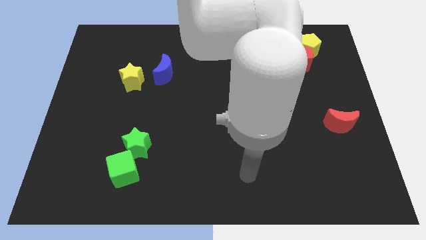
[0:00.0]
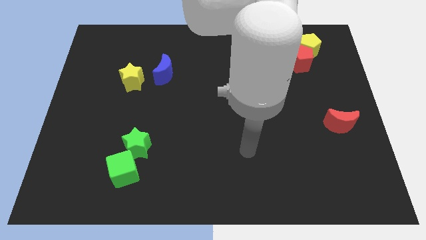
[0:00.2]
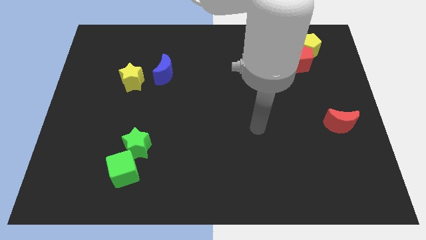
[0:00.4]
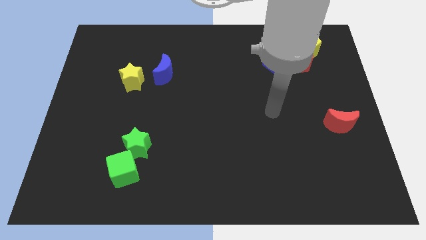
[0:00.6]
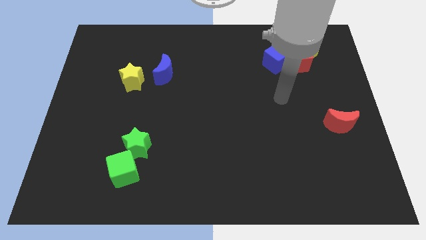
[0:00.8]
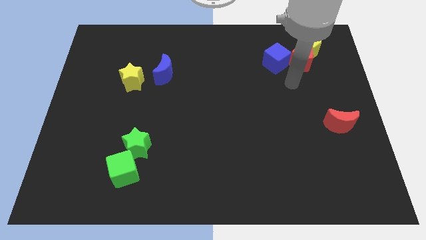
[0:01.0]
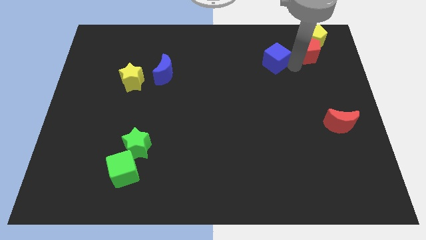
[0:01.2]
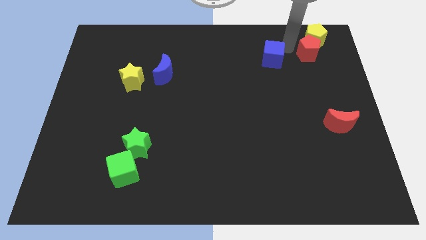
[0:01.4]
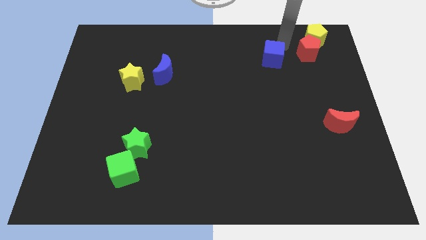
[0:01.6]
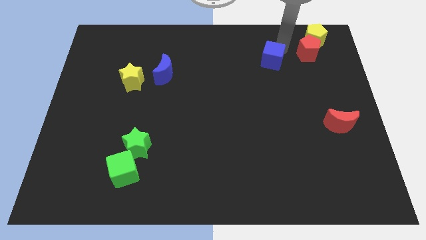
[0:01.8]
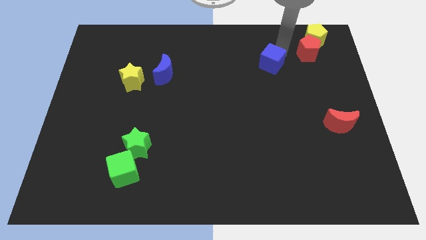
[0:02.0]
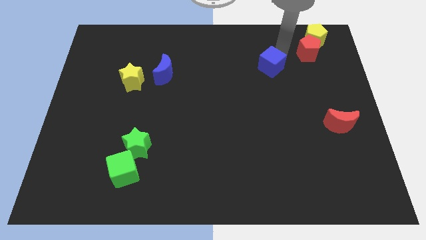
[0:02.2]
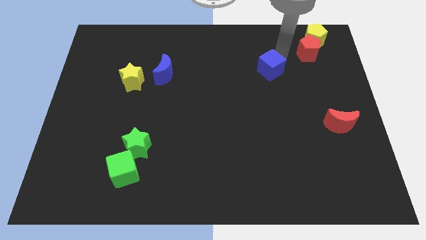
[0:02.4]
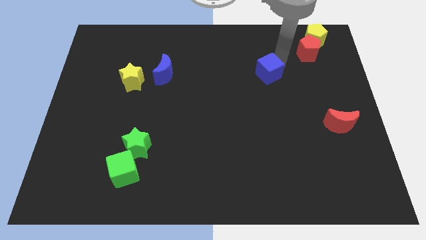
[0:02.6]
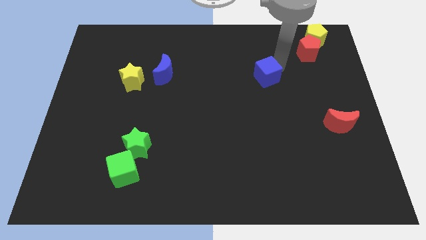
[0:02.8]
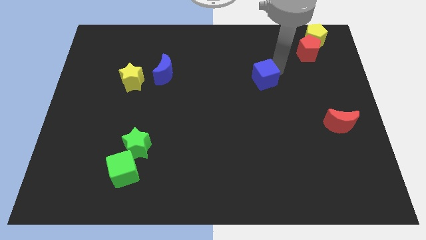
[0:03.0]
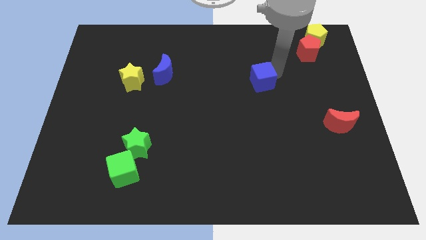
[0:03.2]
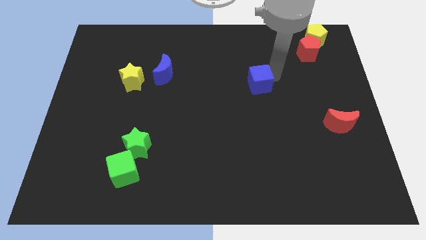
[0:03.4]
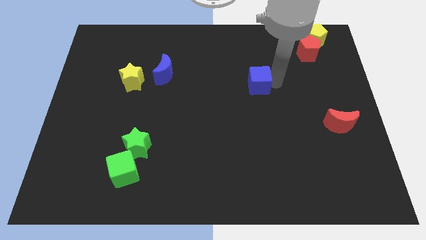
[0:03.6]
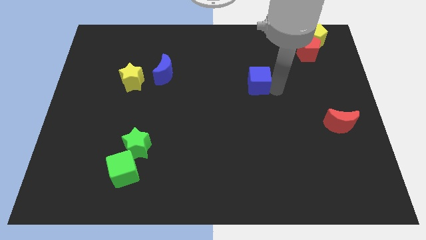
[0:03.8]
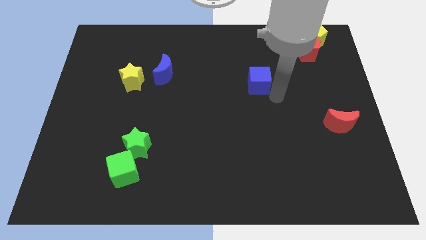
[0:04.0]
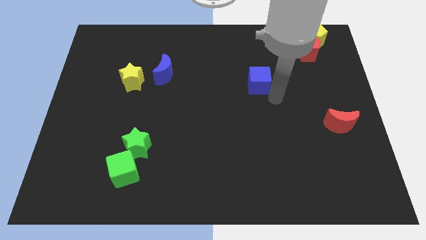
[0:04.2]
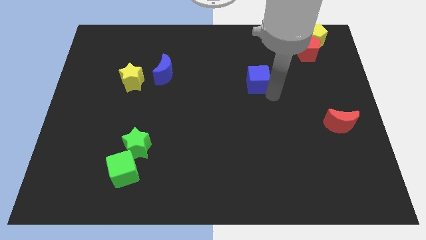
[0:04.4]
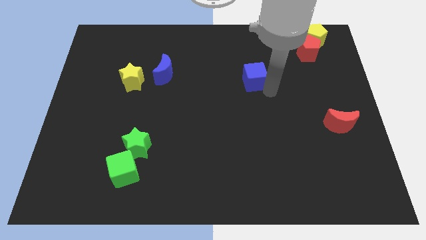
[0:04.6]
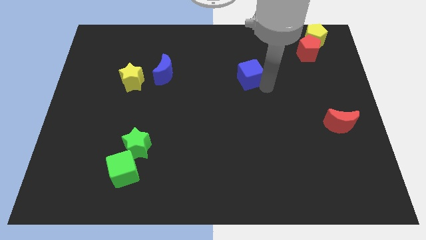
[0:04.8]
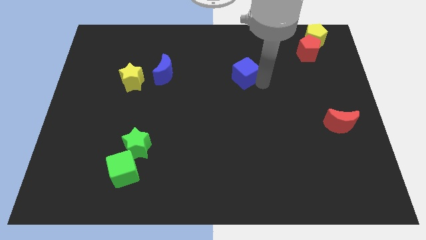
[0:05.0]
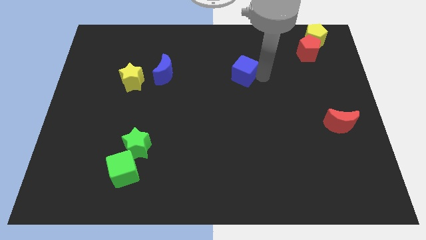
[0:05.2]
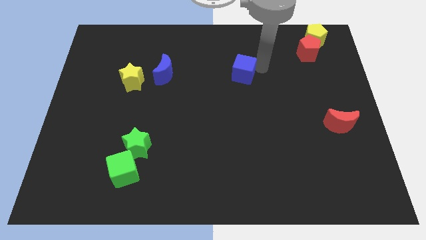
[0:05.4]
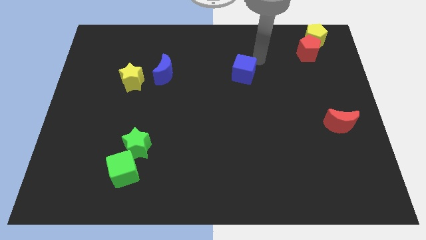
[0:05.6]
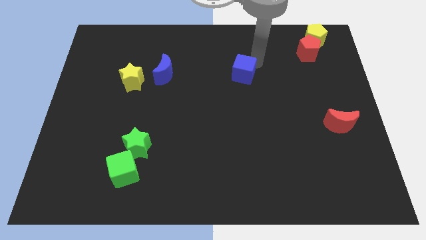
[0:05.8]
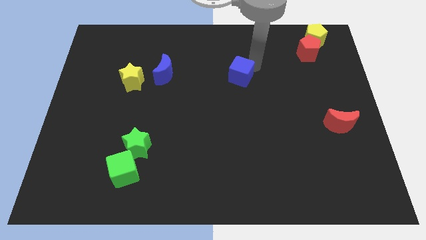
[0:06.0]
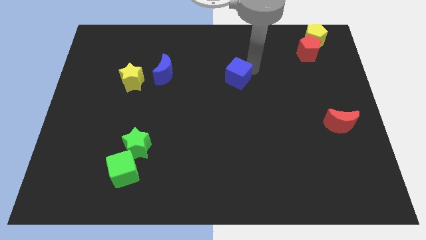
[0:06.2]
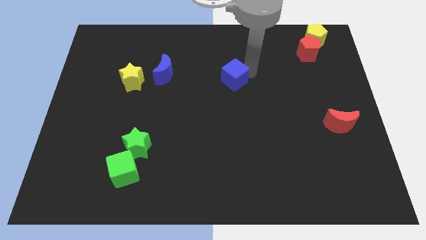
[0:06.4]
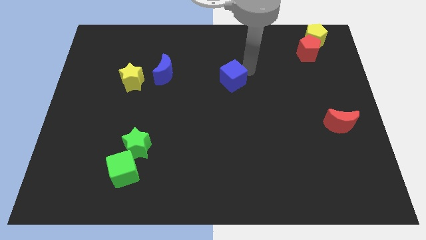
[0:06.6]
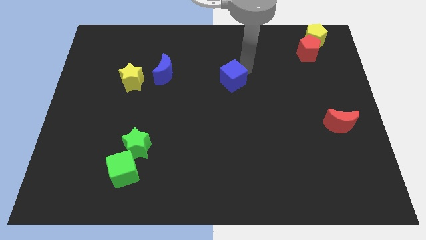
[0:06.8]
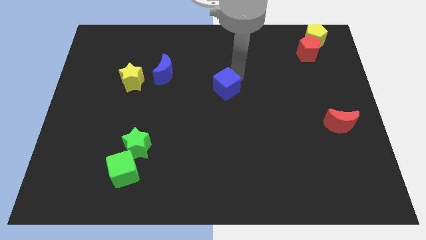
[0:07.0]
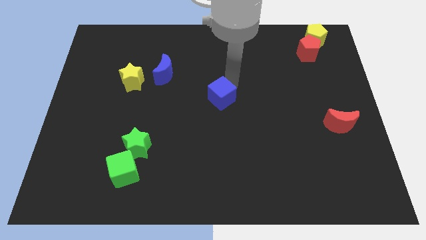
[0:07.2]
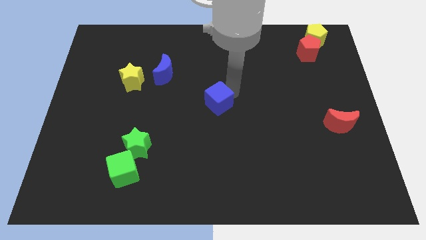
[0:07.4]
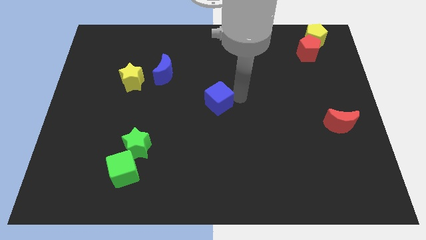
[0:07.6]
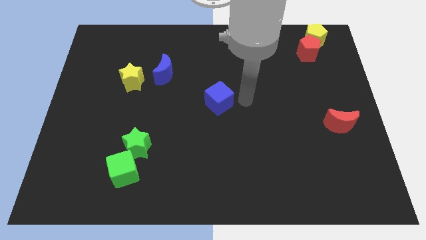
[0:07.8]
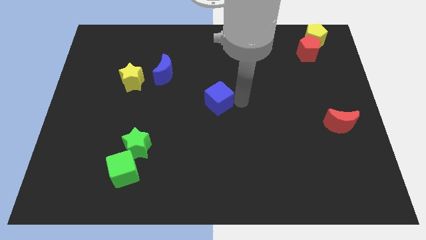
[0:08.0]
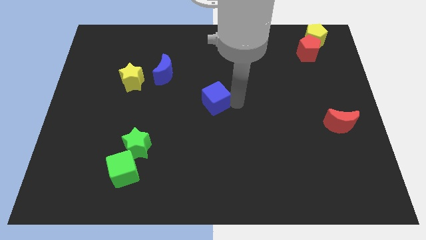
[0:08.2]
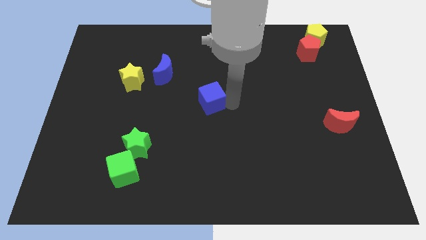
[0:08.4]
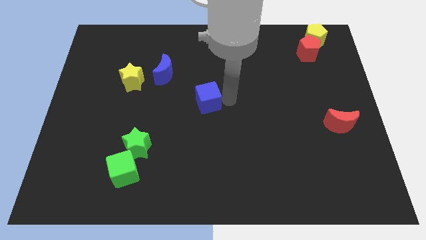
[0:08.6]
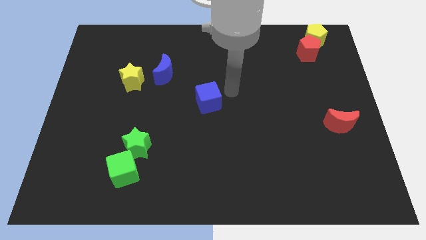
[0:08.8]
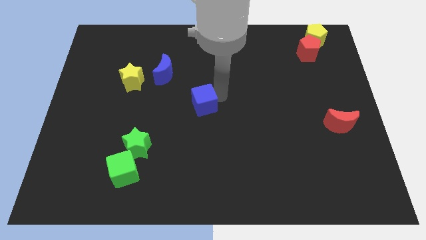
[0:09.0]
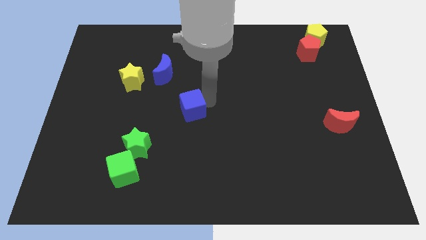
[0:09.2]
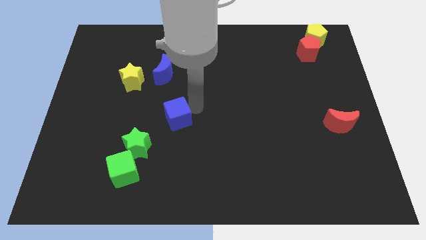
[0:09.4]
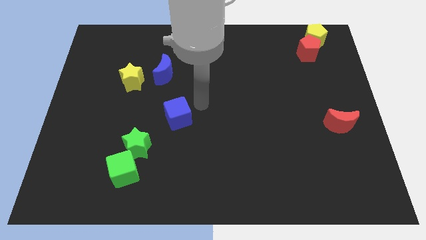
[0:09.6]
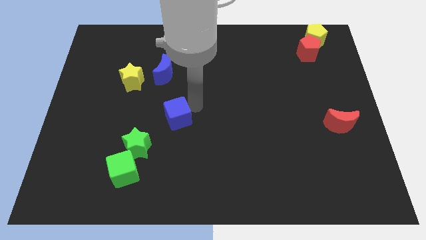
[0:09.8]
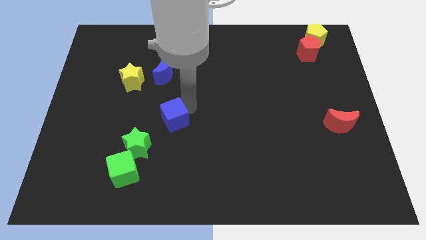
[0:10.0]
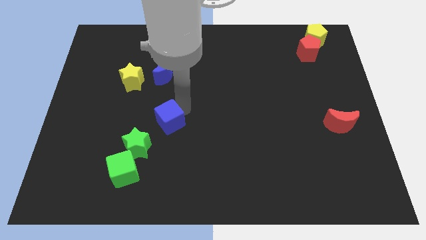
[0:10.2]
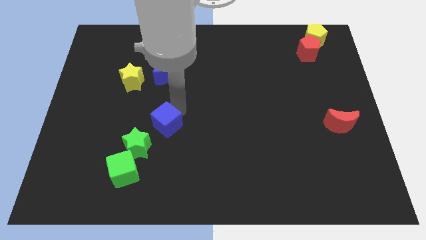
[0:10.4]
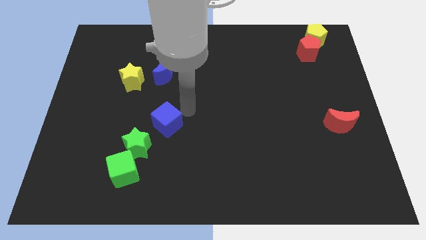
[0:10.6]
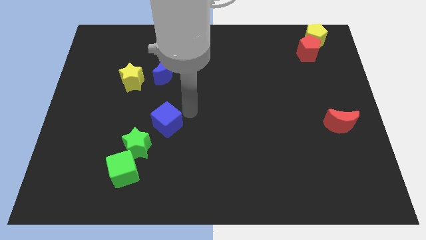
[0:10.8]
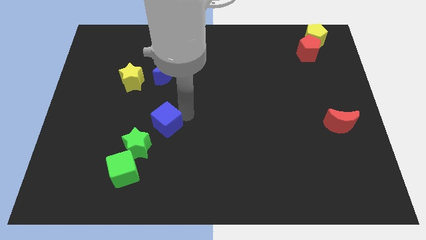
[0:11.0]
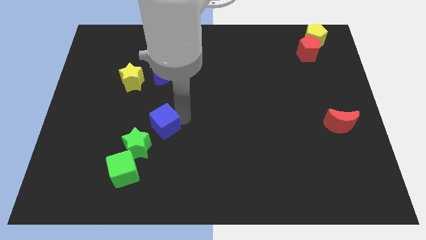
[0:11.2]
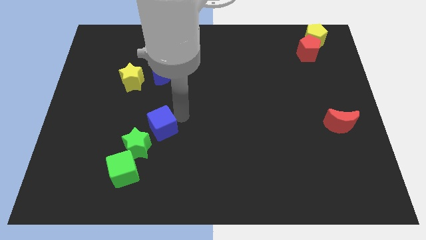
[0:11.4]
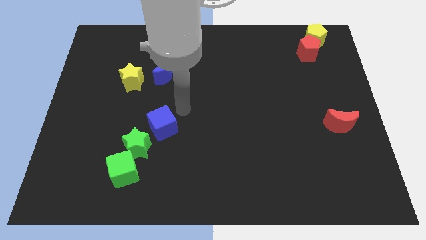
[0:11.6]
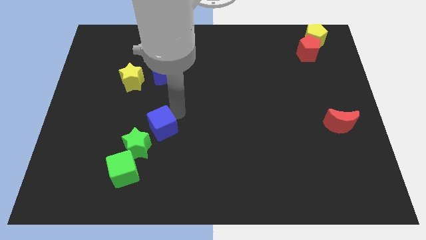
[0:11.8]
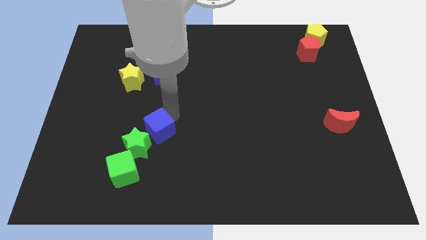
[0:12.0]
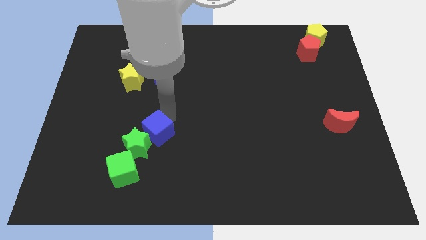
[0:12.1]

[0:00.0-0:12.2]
move the blue cube close to the green star

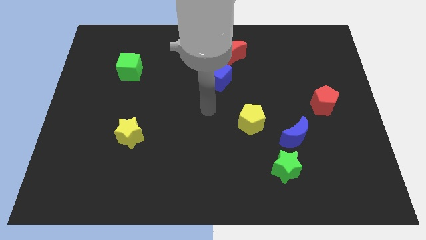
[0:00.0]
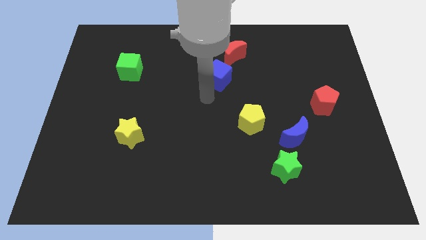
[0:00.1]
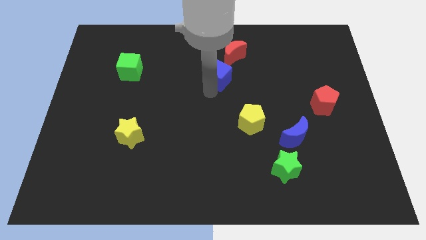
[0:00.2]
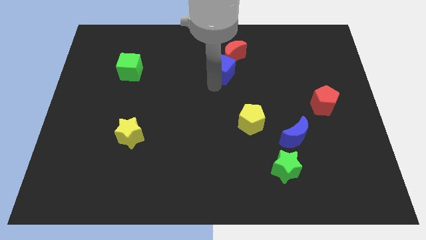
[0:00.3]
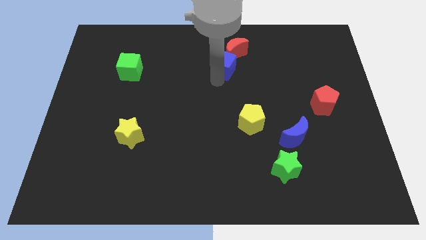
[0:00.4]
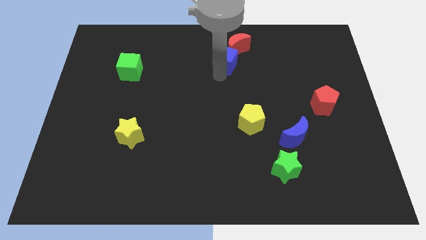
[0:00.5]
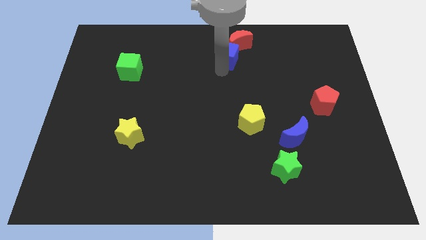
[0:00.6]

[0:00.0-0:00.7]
push the blue cube towards the red moon
